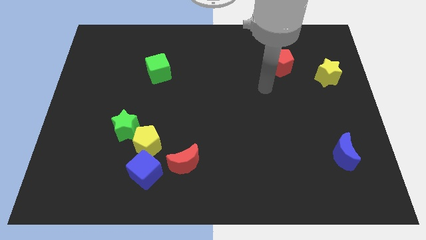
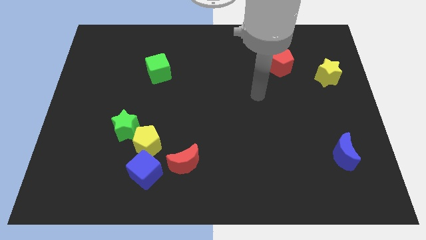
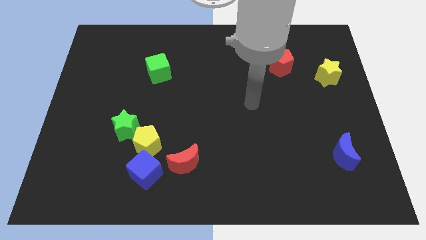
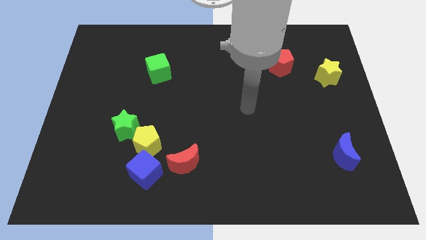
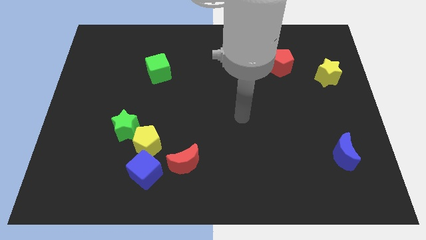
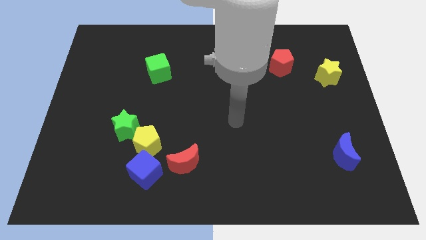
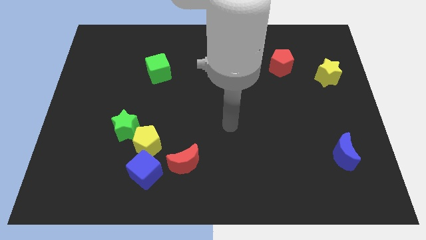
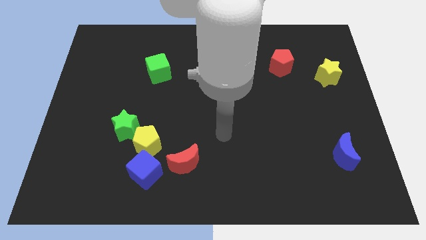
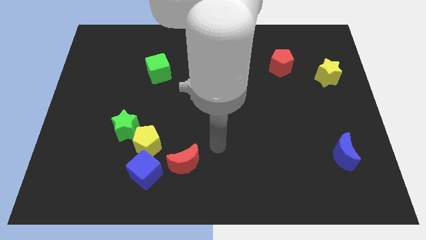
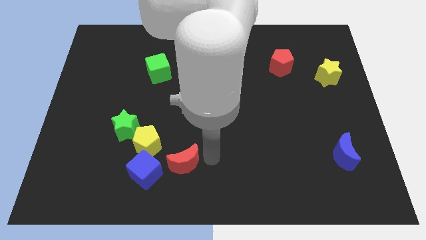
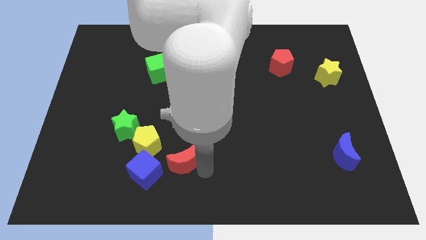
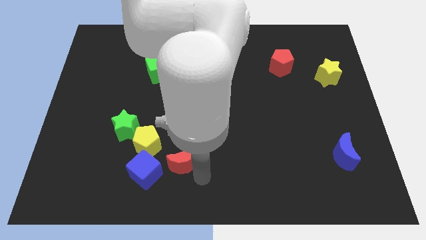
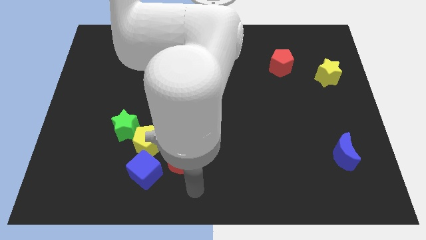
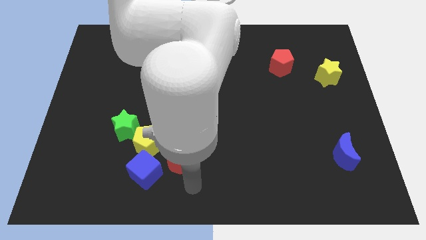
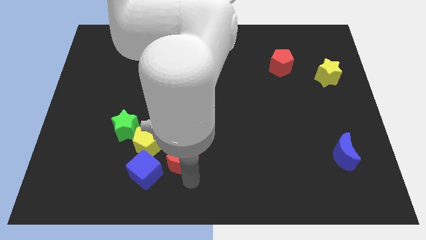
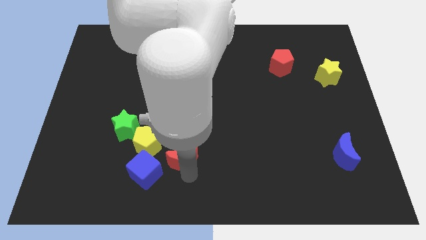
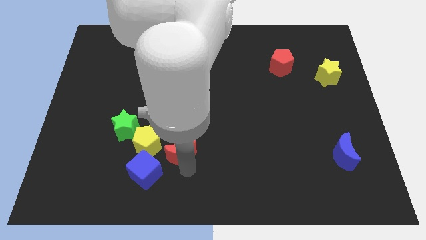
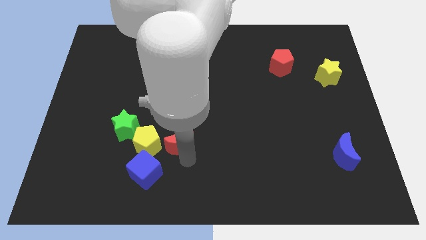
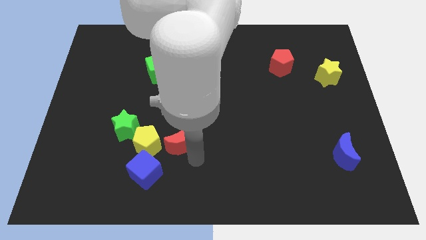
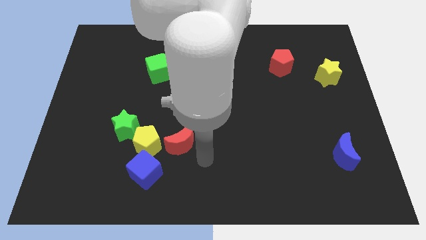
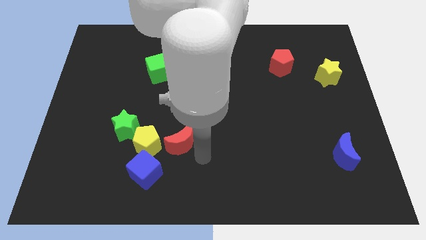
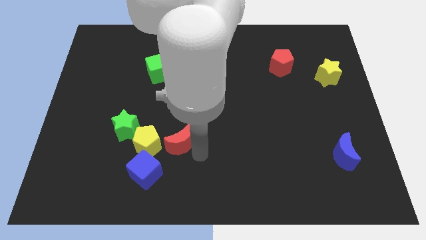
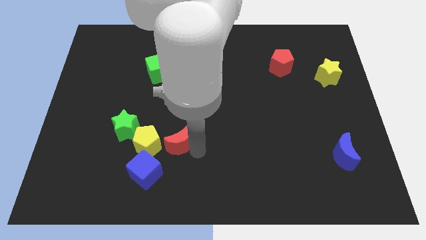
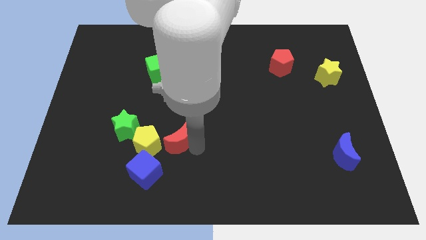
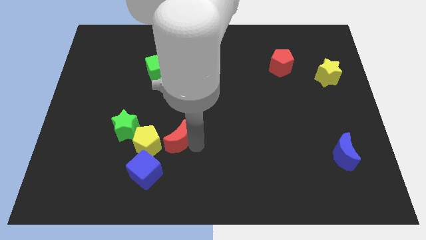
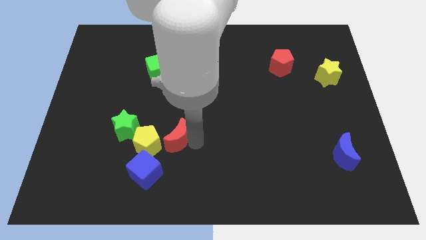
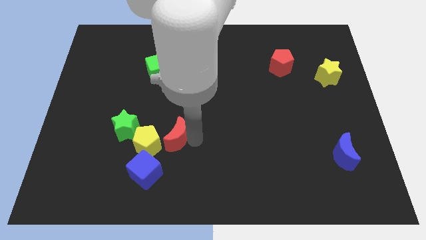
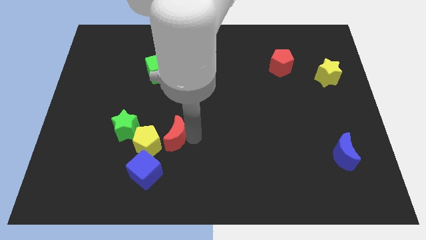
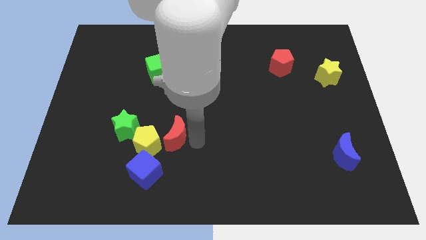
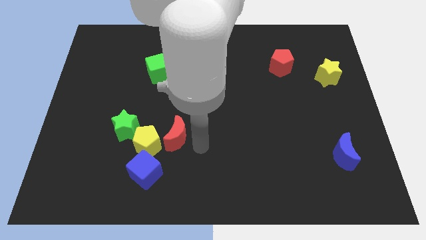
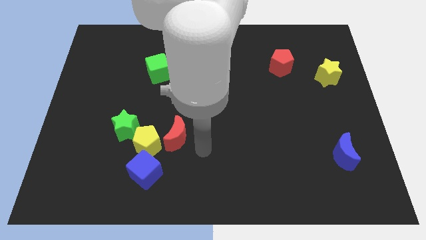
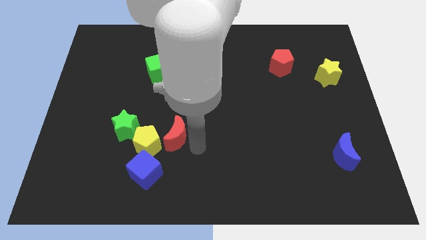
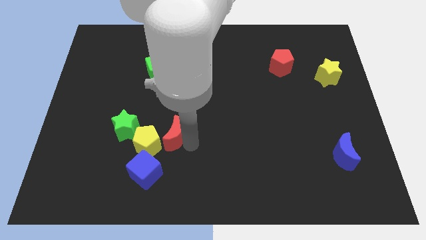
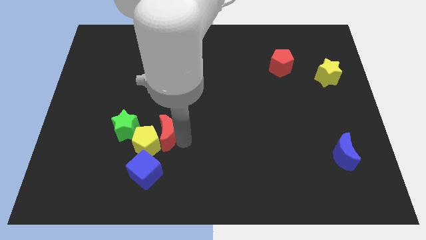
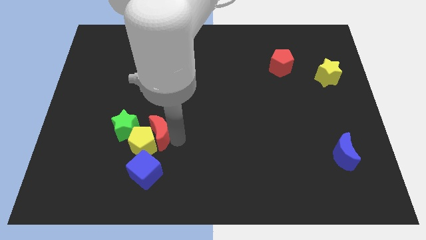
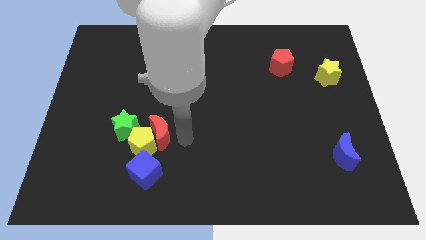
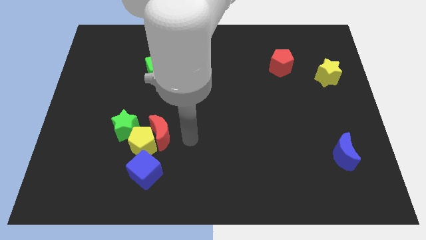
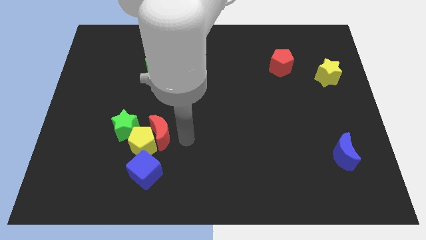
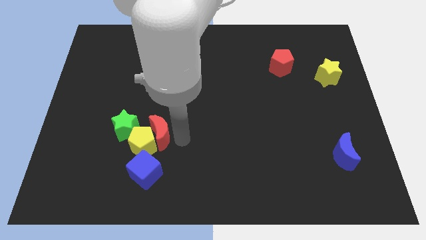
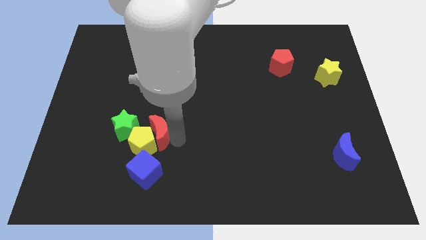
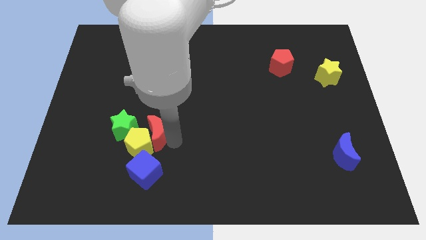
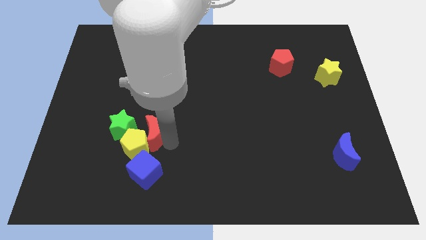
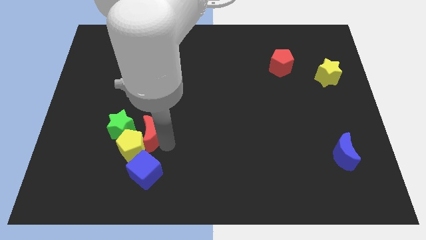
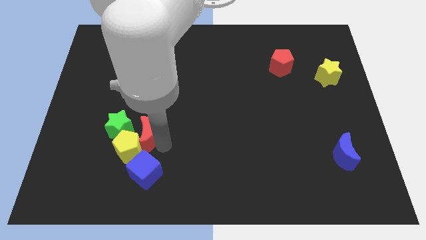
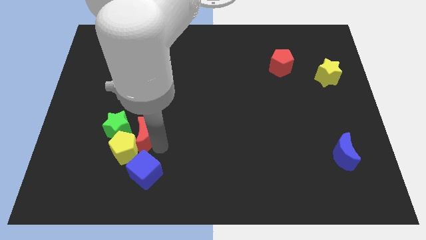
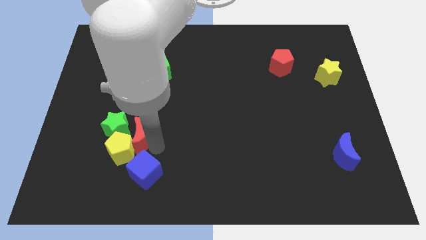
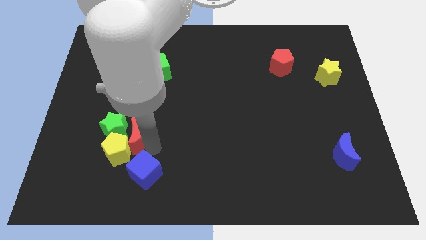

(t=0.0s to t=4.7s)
move the red moon next to the green star

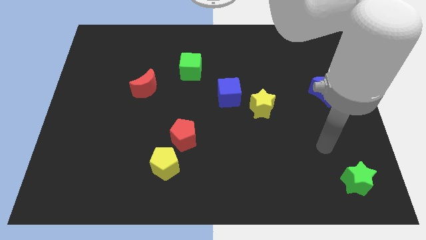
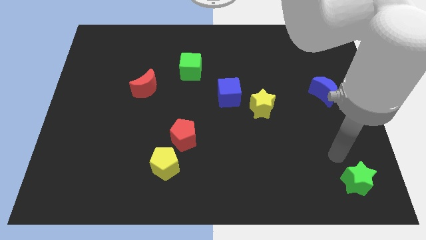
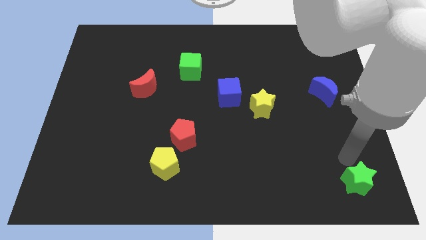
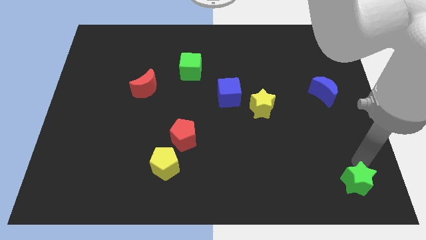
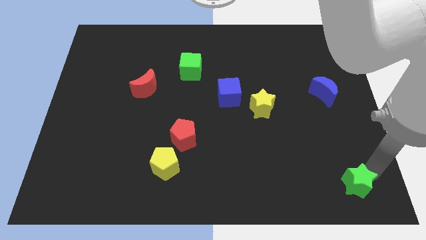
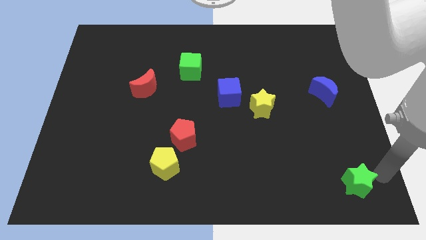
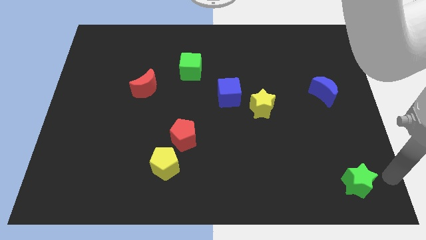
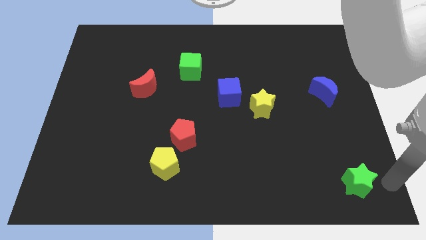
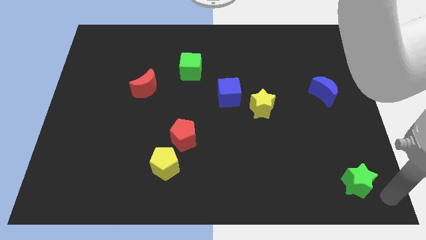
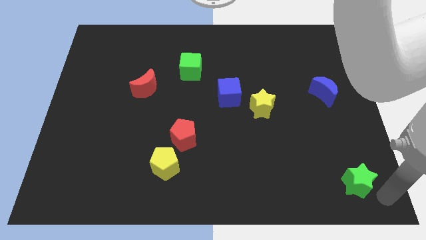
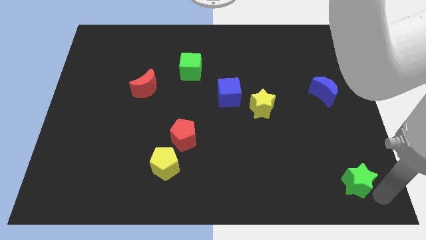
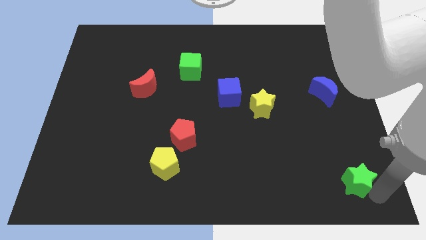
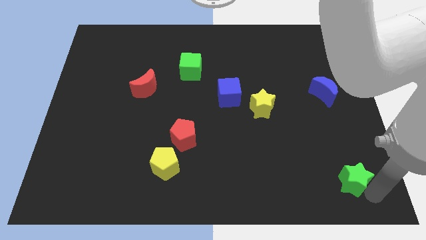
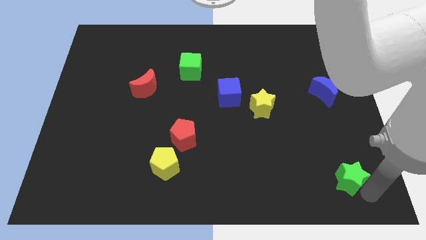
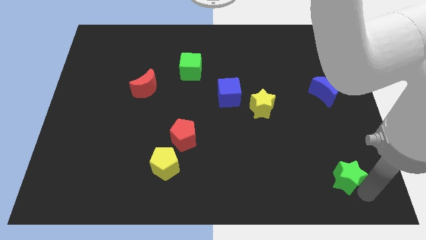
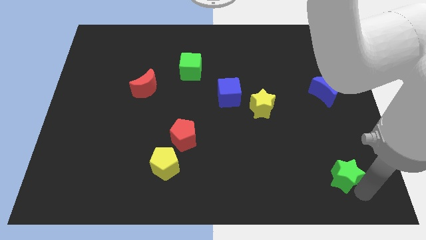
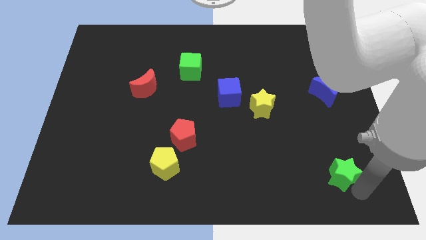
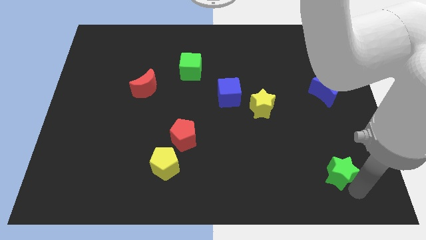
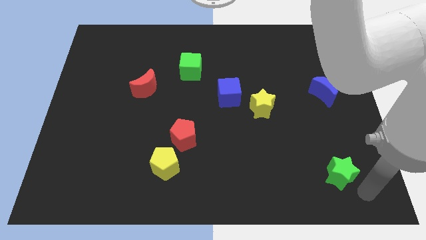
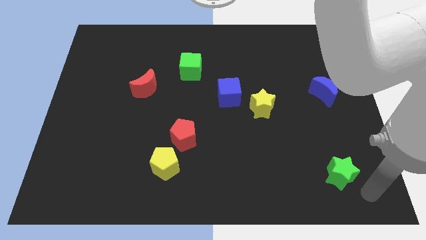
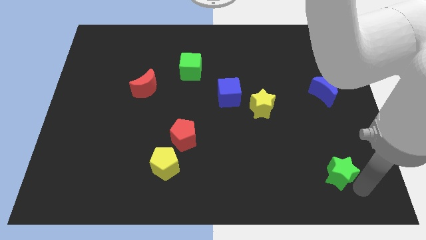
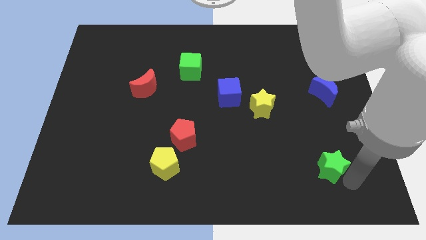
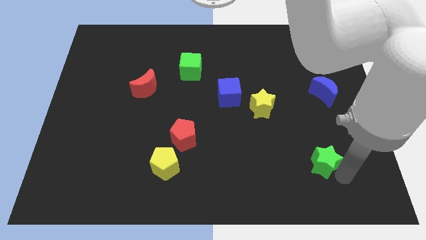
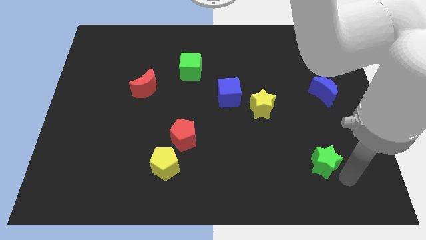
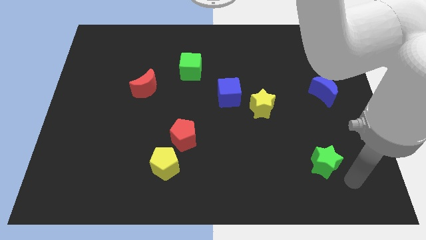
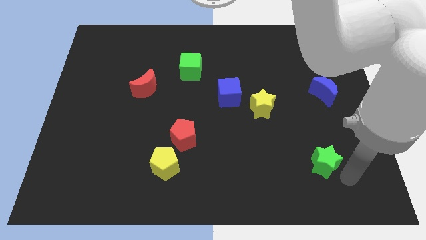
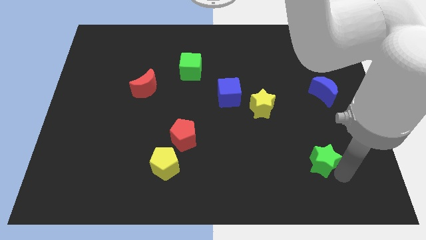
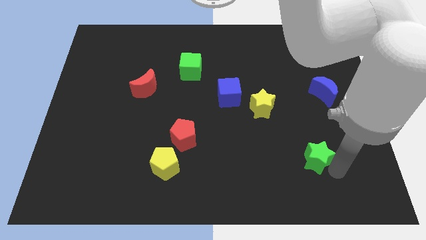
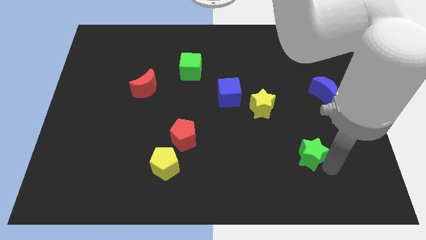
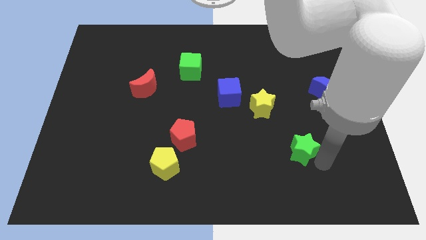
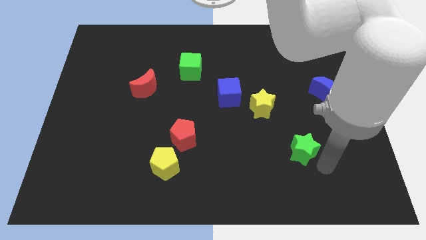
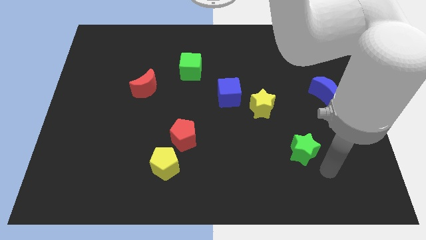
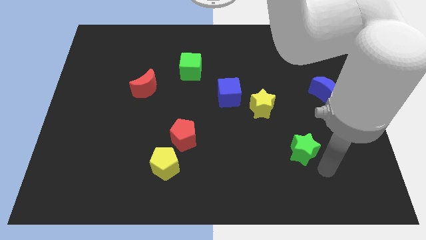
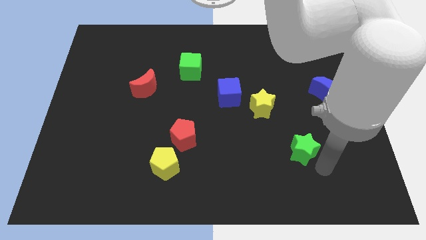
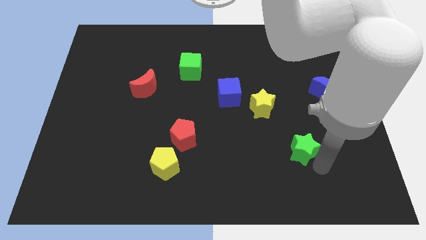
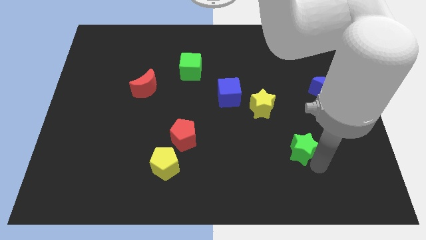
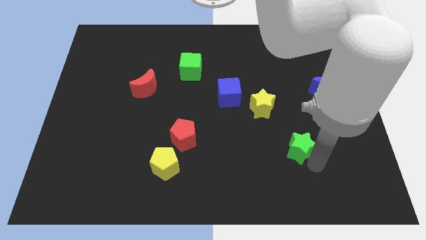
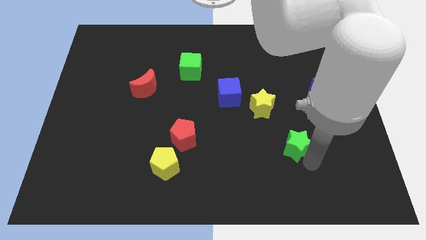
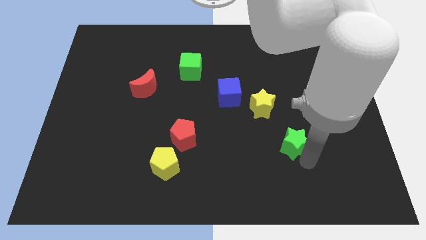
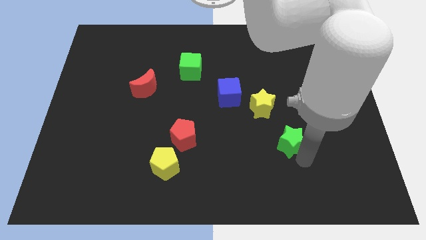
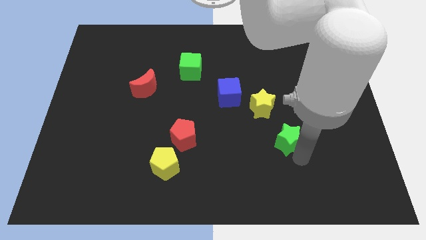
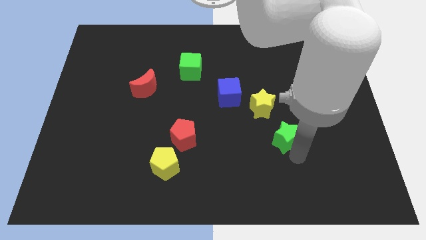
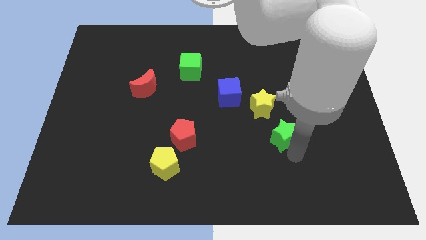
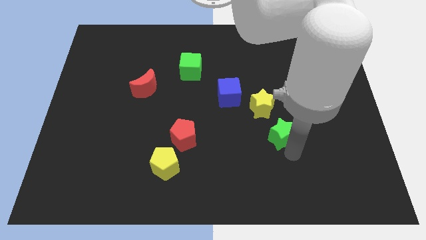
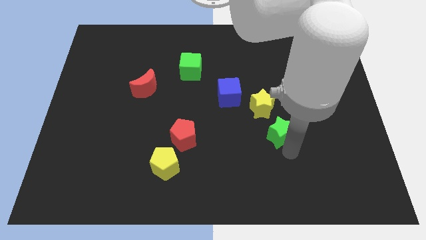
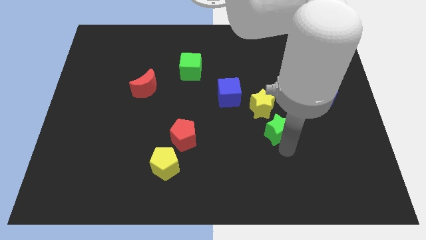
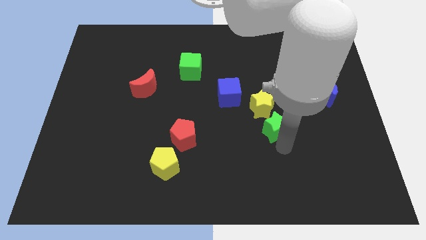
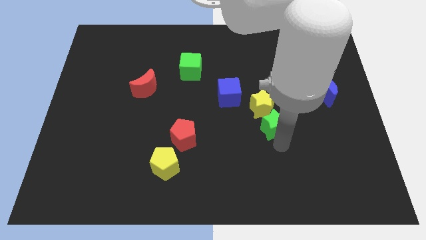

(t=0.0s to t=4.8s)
put the green star towards the yellow star
